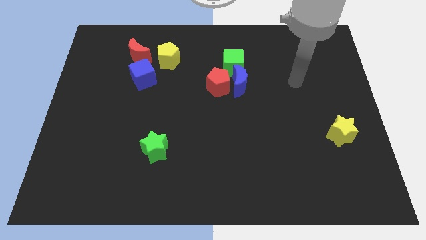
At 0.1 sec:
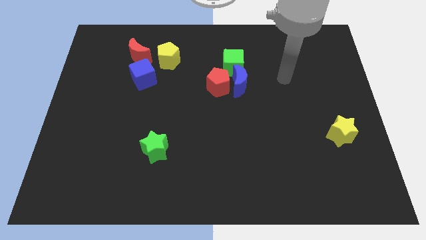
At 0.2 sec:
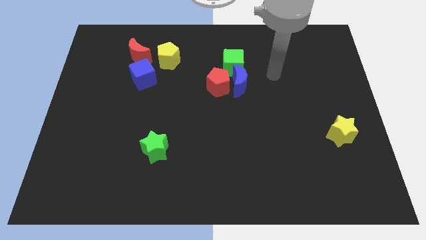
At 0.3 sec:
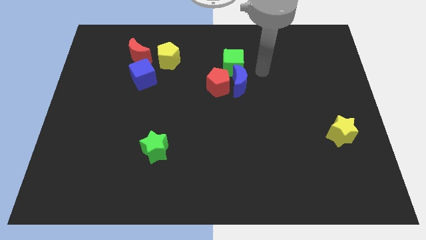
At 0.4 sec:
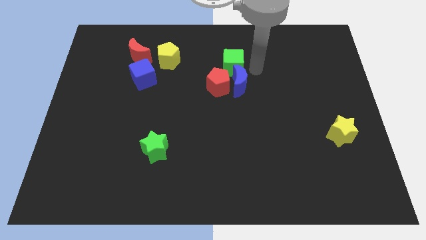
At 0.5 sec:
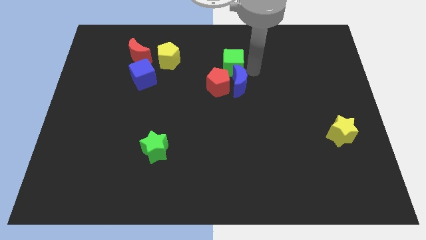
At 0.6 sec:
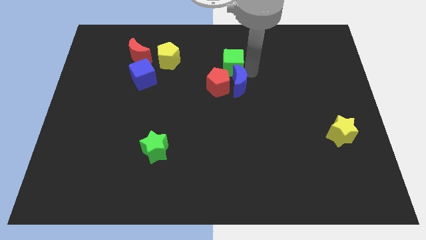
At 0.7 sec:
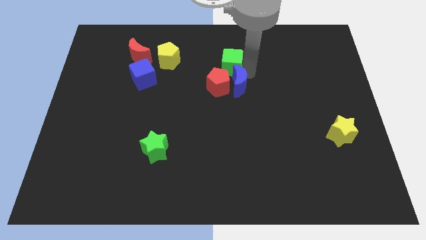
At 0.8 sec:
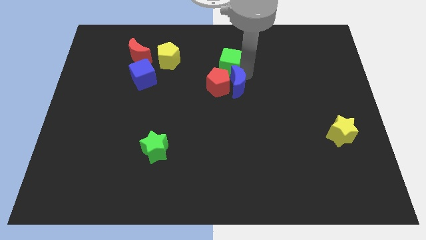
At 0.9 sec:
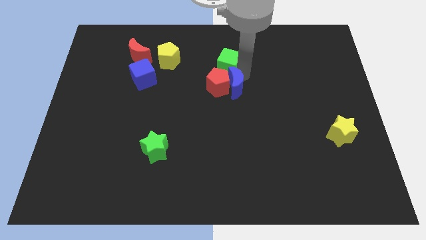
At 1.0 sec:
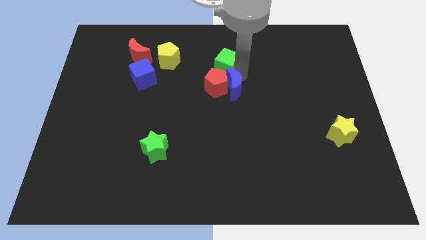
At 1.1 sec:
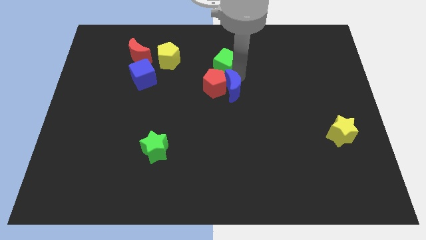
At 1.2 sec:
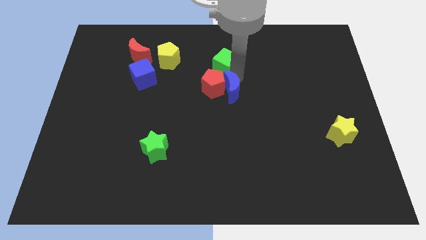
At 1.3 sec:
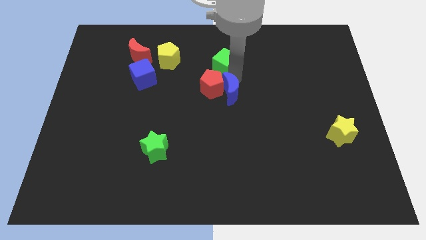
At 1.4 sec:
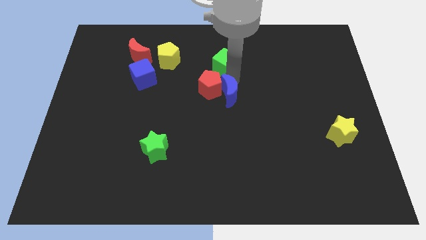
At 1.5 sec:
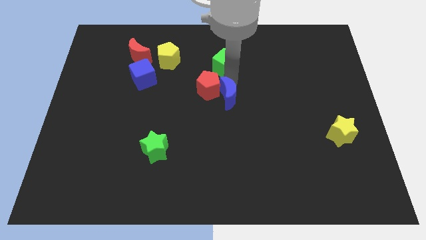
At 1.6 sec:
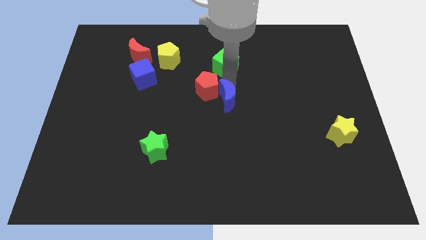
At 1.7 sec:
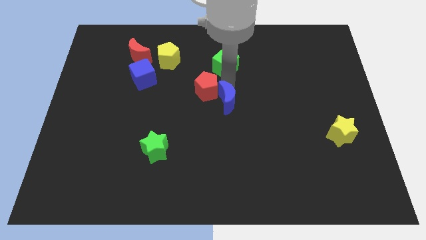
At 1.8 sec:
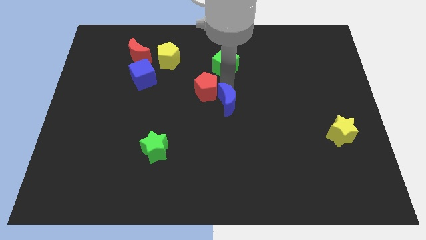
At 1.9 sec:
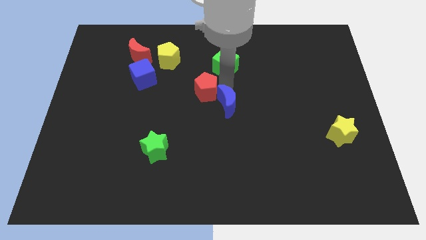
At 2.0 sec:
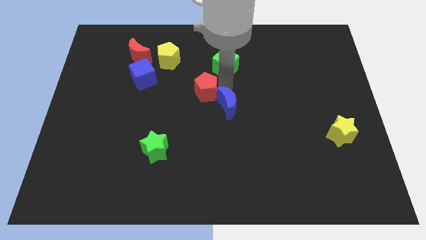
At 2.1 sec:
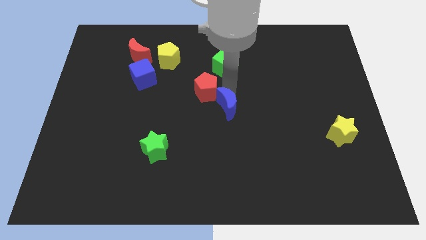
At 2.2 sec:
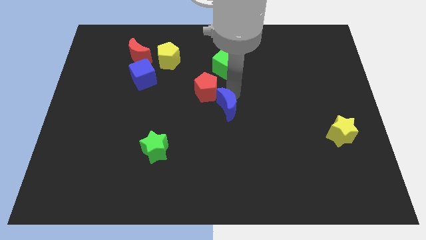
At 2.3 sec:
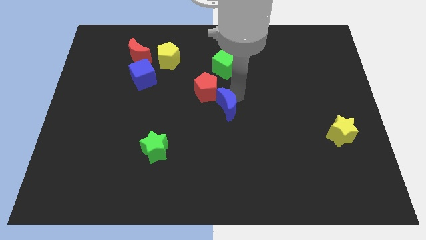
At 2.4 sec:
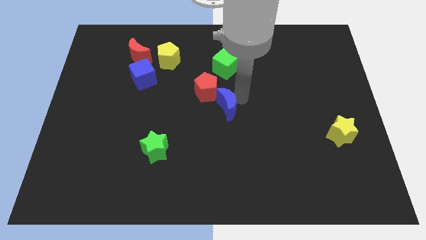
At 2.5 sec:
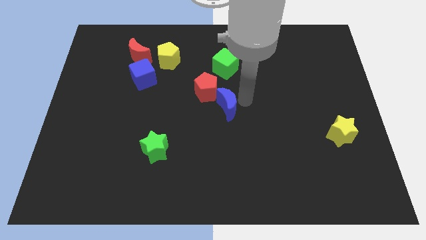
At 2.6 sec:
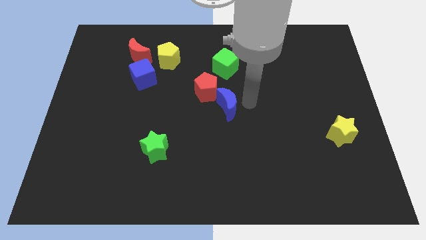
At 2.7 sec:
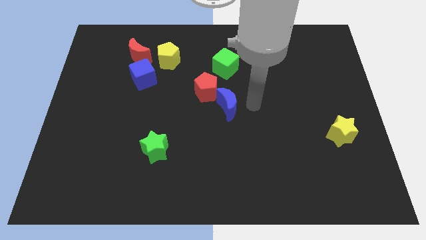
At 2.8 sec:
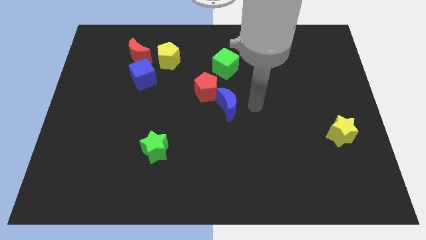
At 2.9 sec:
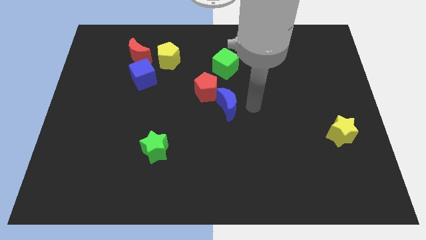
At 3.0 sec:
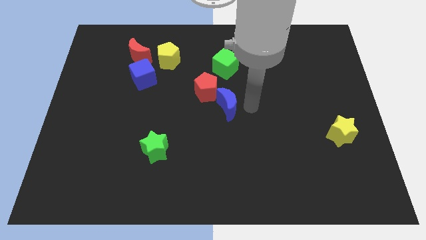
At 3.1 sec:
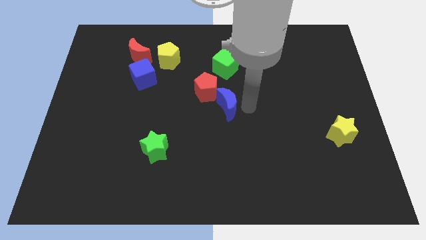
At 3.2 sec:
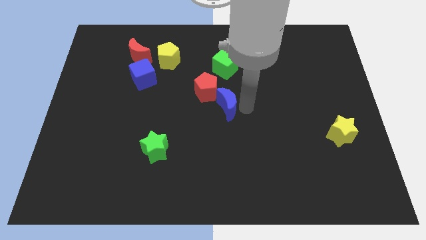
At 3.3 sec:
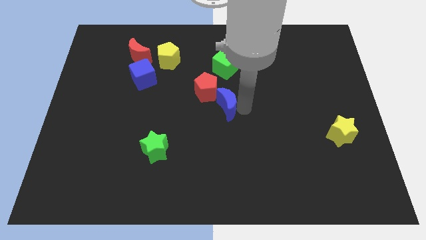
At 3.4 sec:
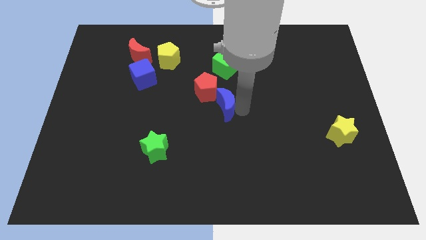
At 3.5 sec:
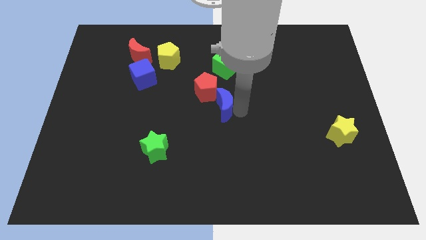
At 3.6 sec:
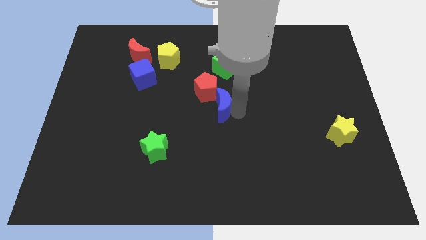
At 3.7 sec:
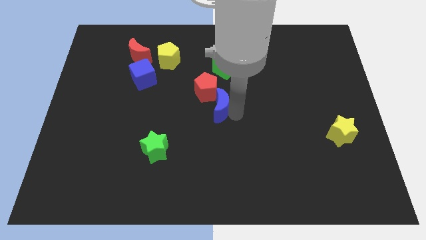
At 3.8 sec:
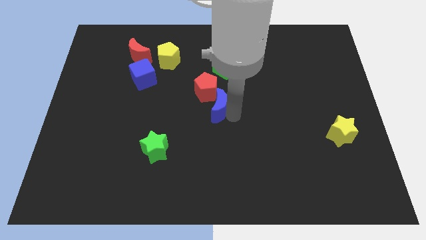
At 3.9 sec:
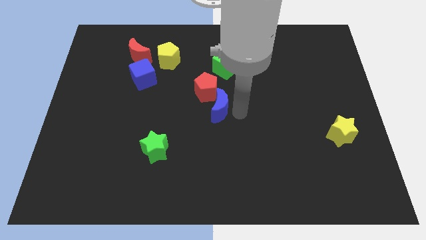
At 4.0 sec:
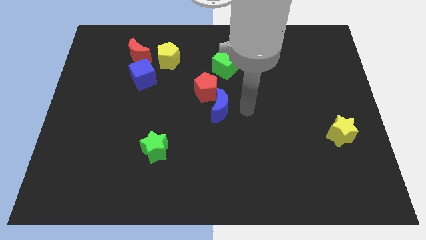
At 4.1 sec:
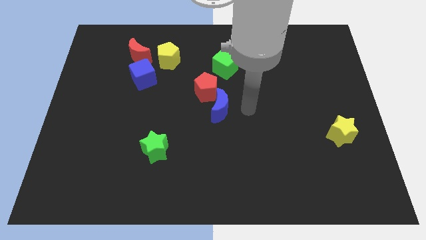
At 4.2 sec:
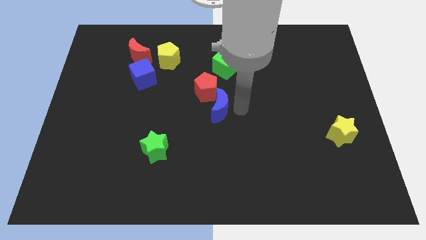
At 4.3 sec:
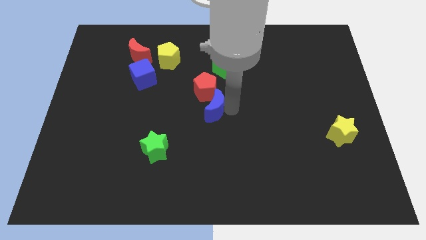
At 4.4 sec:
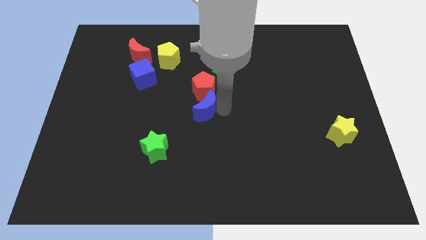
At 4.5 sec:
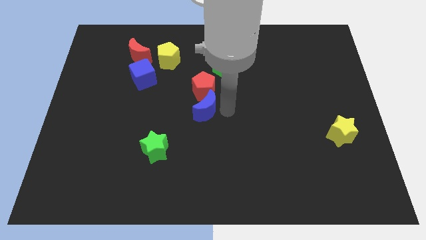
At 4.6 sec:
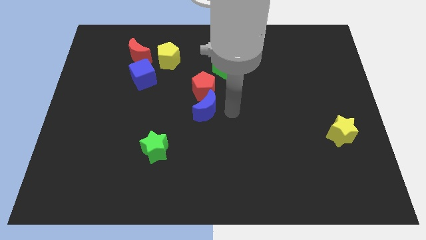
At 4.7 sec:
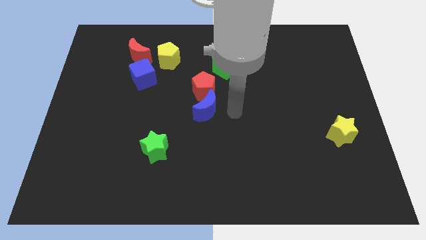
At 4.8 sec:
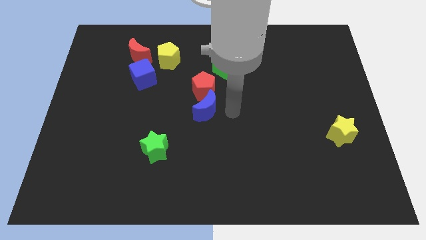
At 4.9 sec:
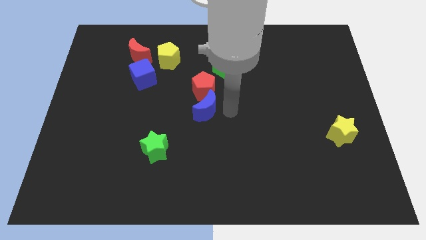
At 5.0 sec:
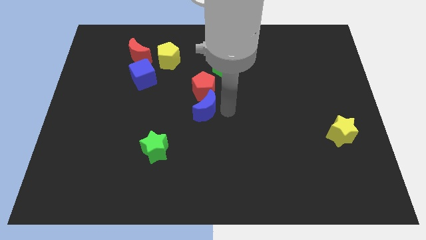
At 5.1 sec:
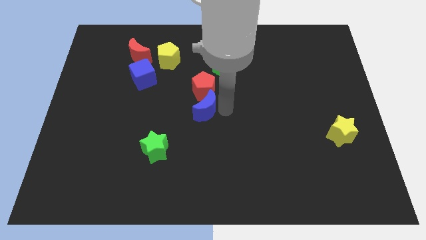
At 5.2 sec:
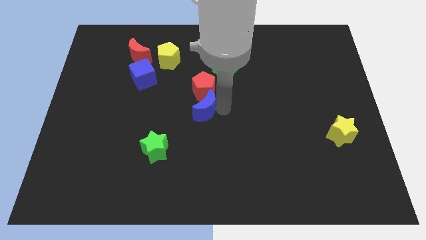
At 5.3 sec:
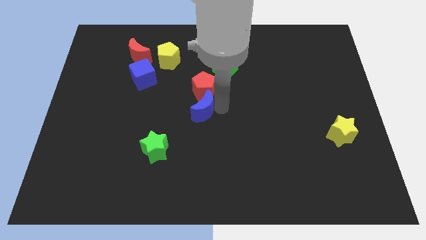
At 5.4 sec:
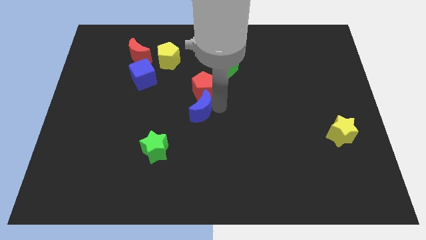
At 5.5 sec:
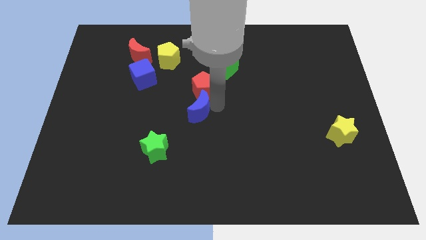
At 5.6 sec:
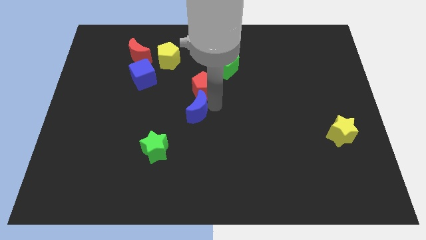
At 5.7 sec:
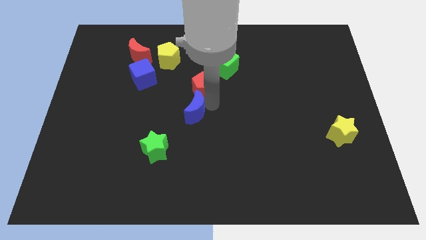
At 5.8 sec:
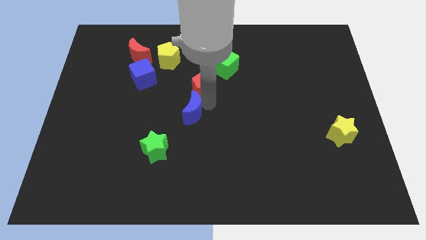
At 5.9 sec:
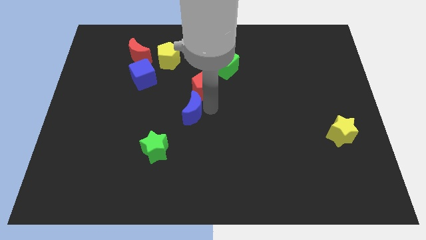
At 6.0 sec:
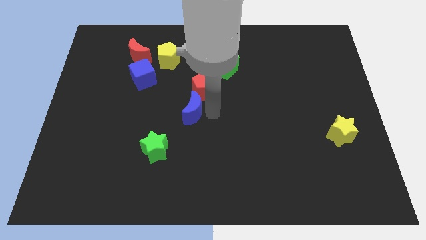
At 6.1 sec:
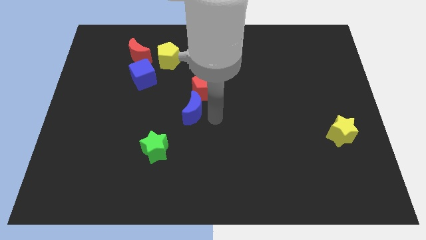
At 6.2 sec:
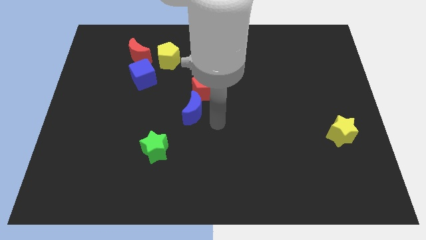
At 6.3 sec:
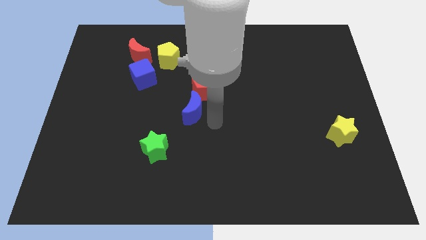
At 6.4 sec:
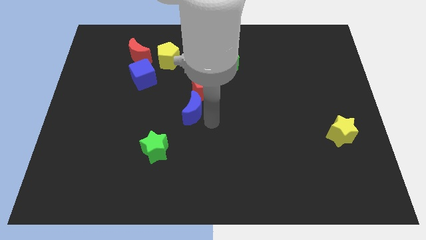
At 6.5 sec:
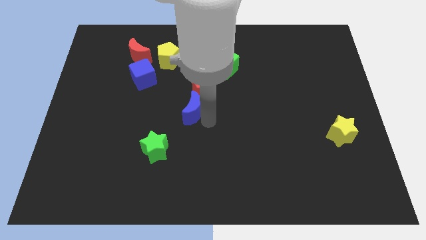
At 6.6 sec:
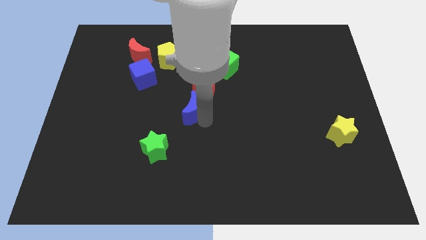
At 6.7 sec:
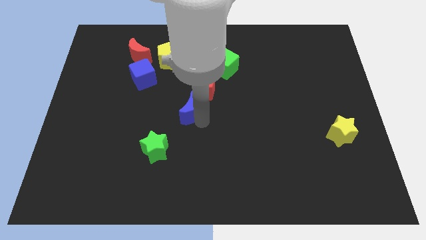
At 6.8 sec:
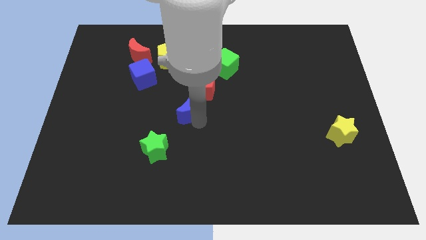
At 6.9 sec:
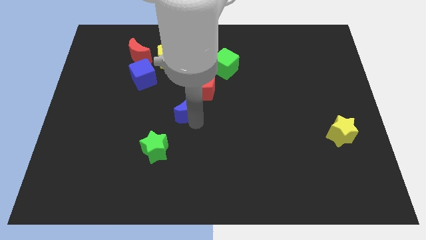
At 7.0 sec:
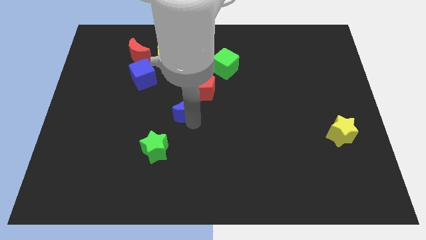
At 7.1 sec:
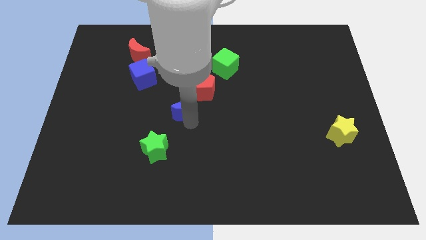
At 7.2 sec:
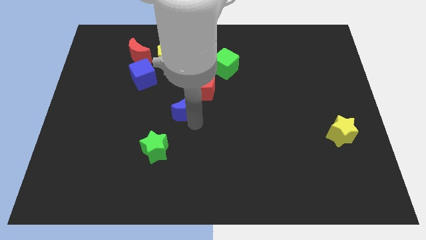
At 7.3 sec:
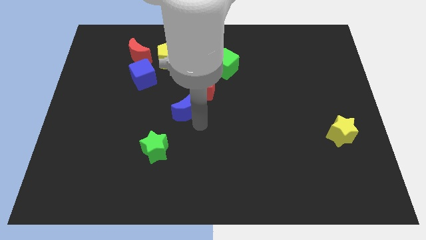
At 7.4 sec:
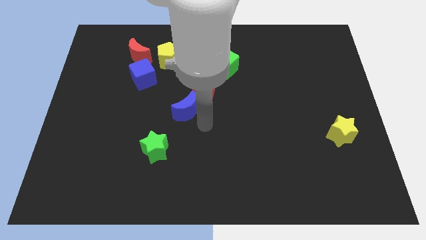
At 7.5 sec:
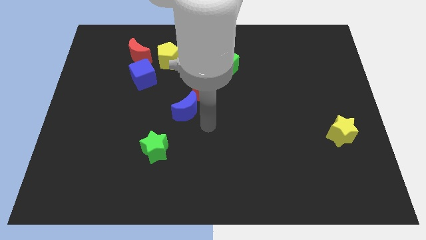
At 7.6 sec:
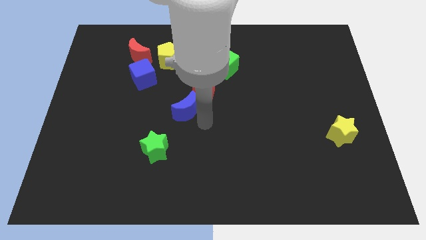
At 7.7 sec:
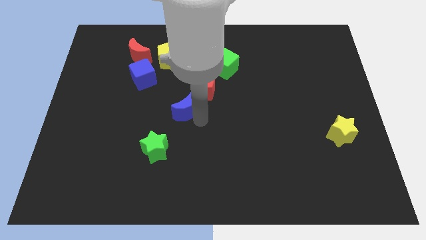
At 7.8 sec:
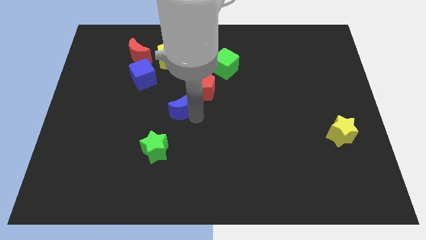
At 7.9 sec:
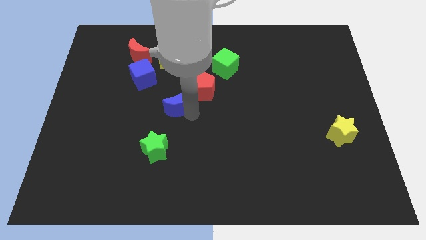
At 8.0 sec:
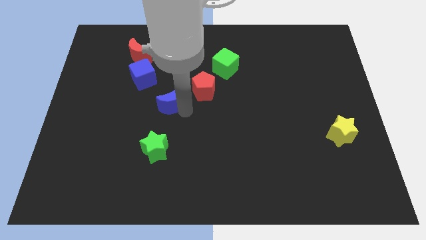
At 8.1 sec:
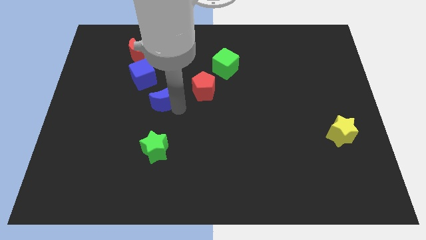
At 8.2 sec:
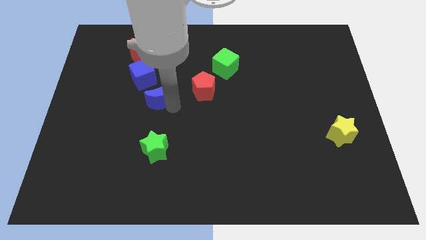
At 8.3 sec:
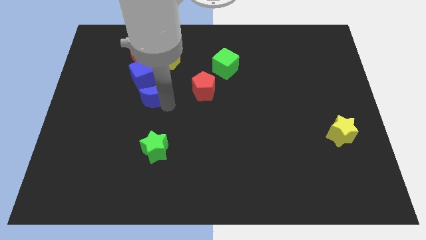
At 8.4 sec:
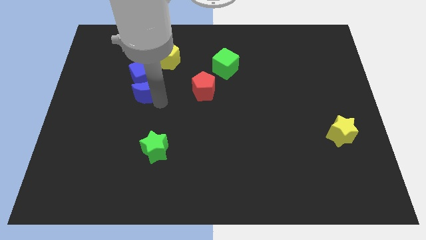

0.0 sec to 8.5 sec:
put the blue moon towards the blue cube
